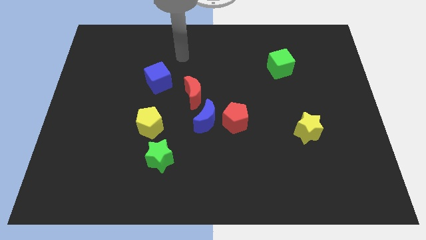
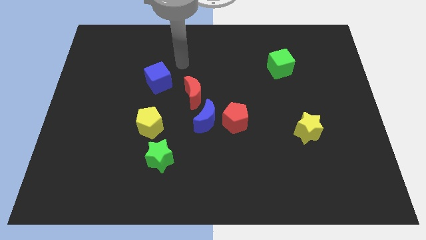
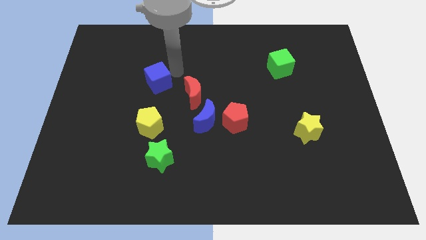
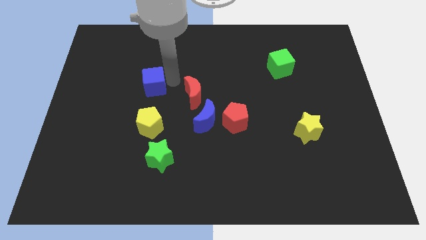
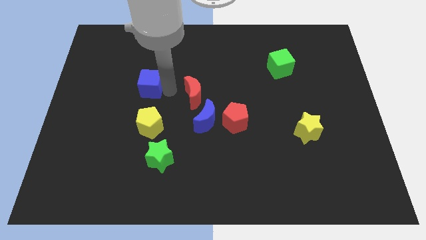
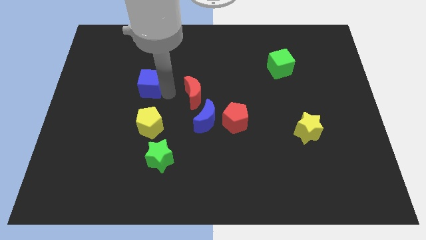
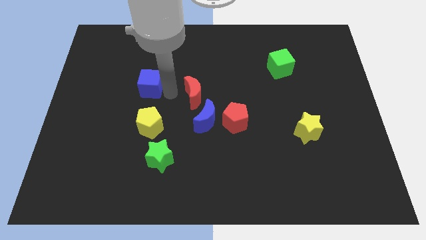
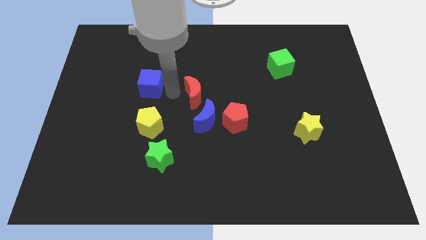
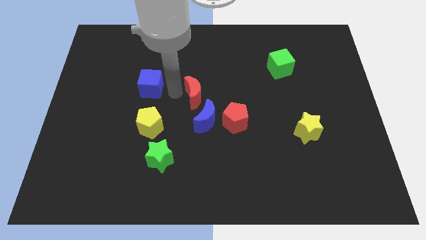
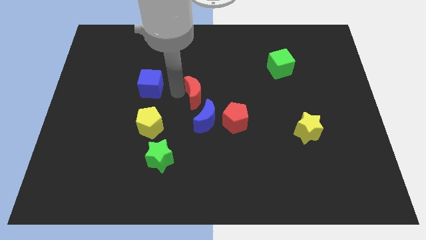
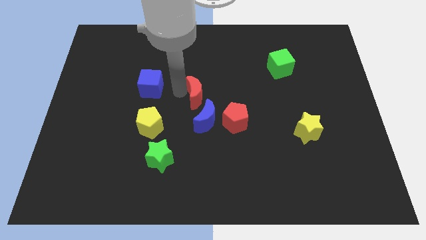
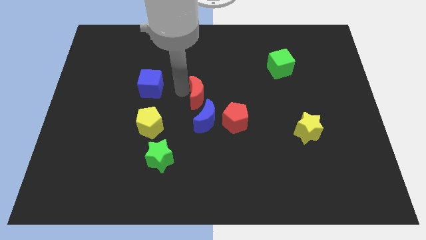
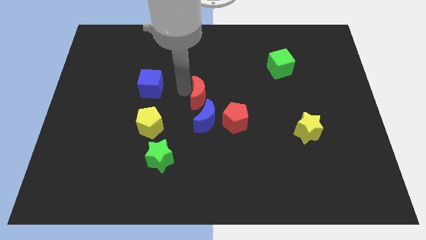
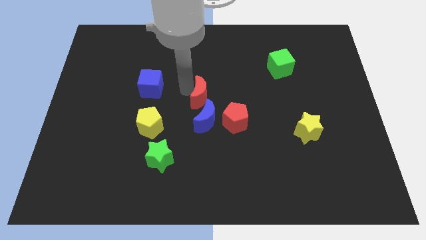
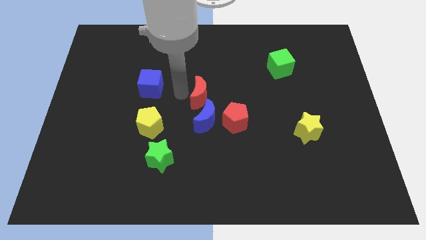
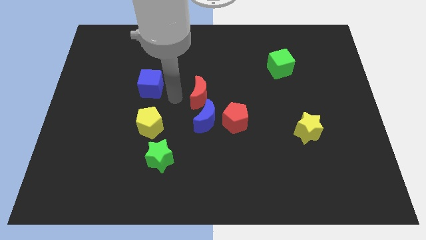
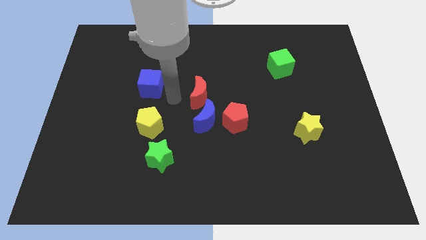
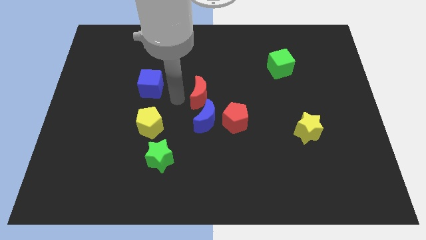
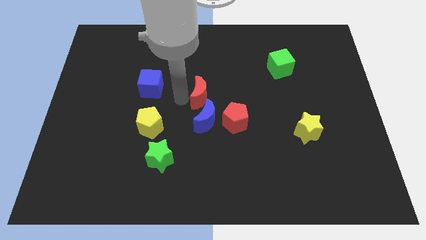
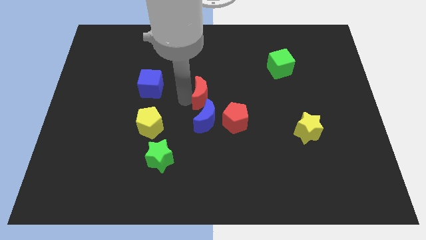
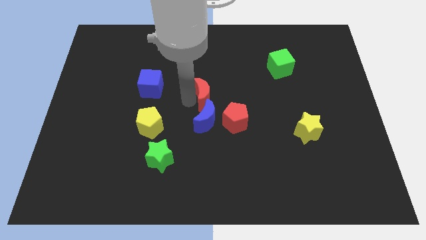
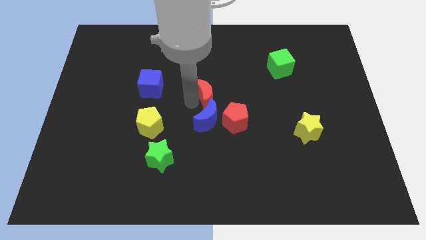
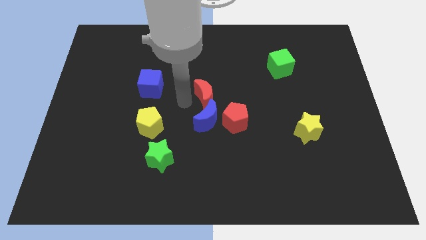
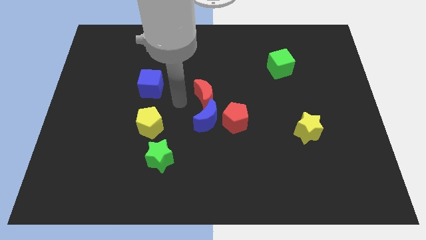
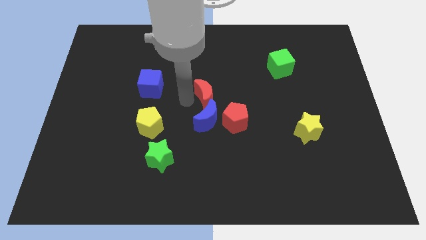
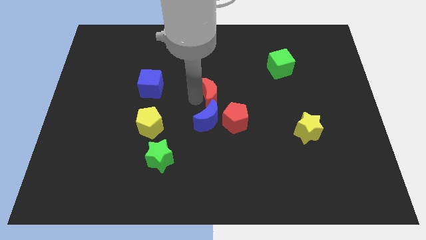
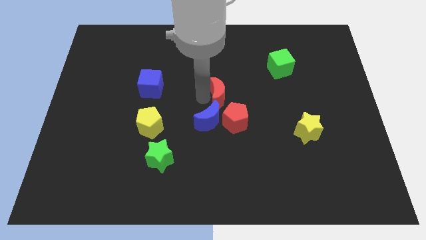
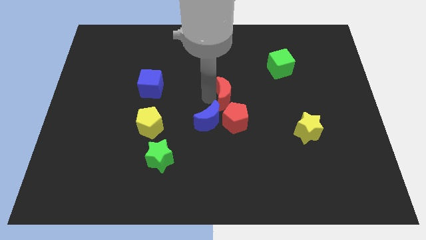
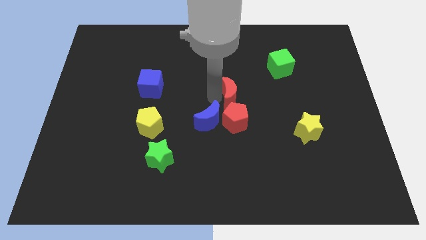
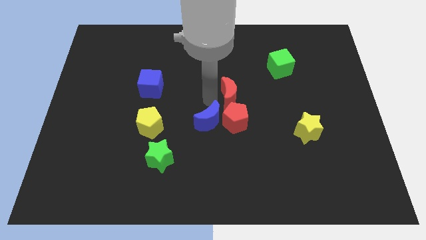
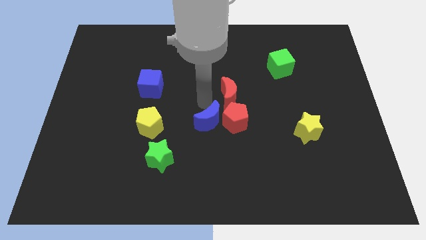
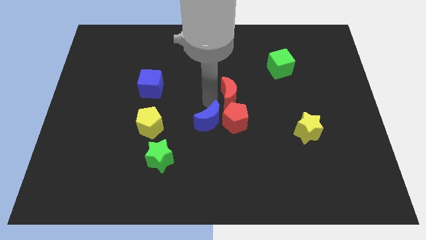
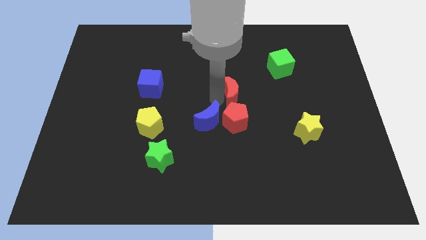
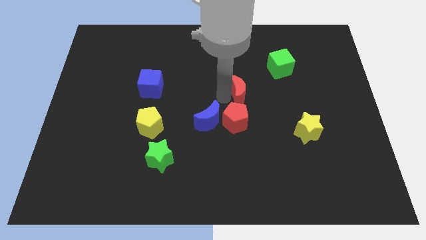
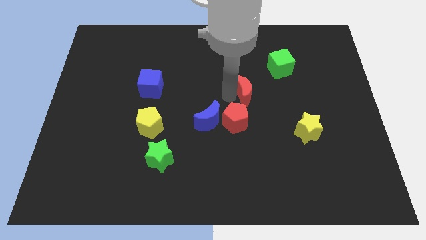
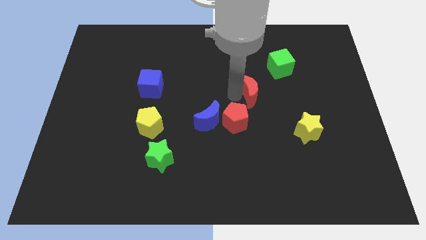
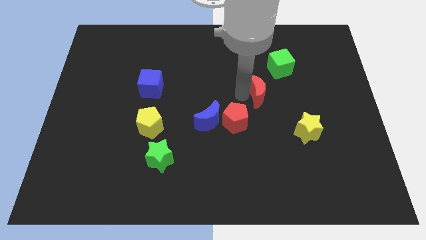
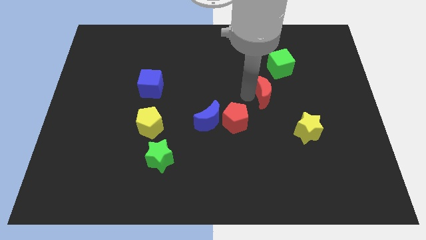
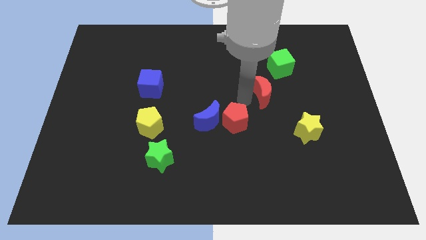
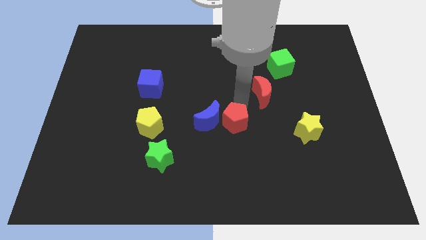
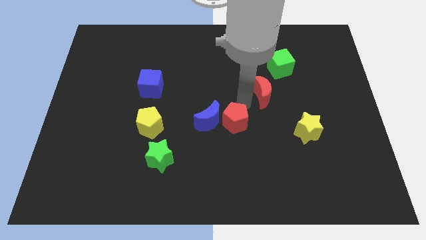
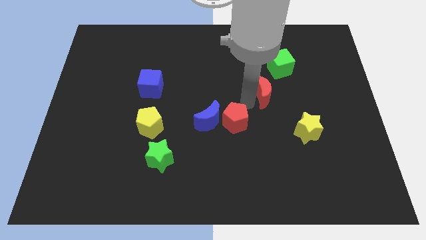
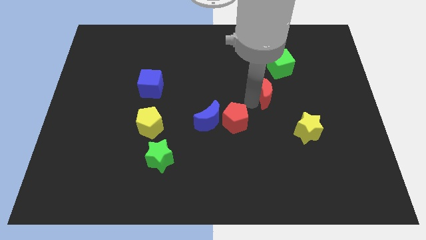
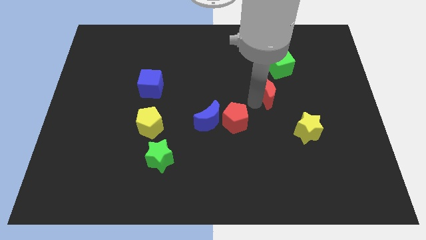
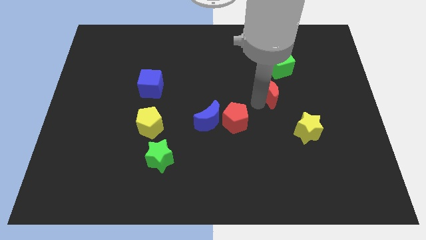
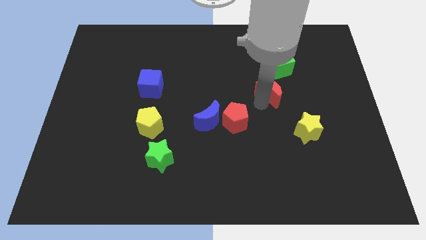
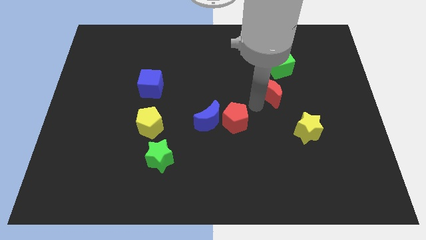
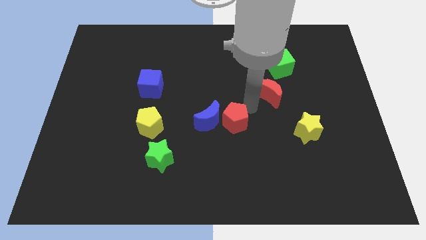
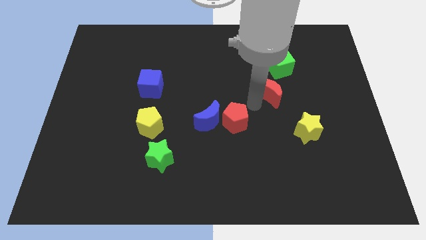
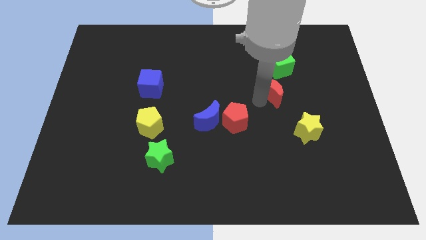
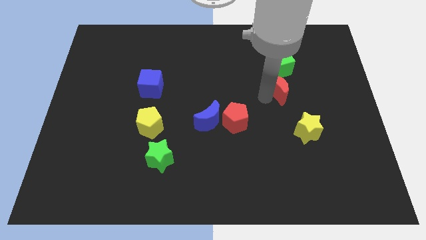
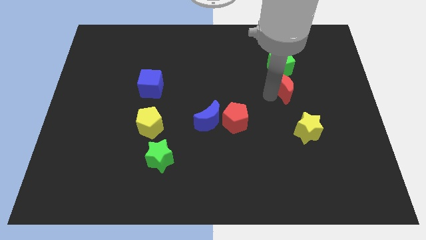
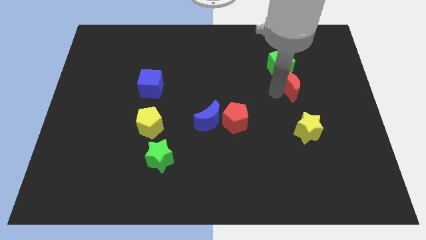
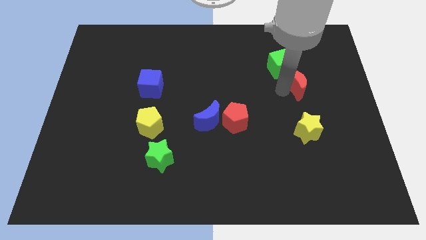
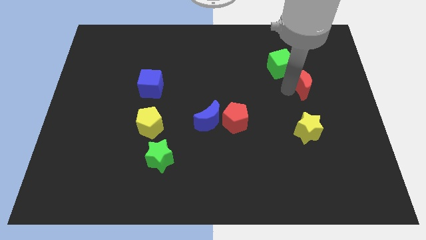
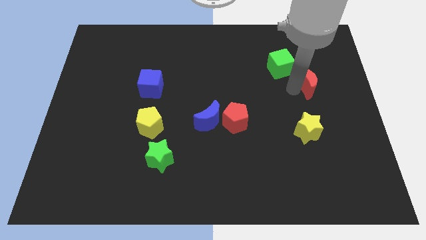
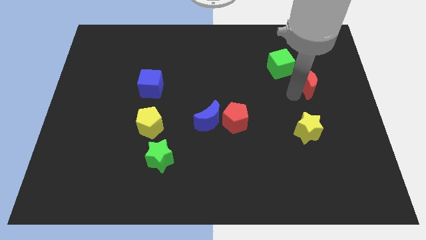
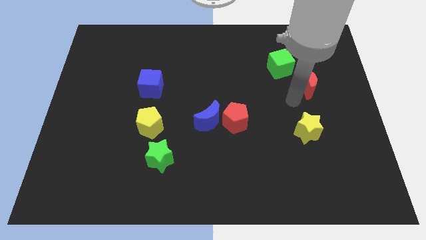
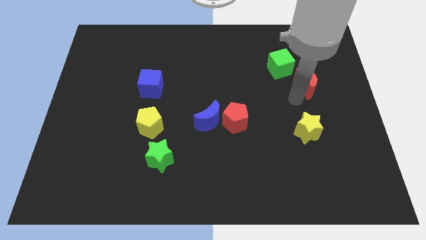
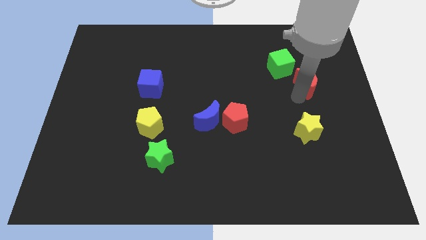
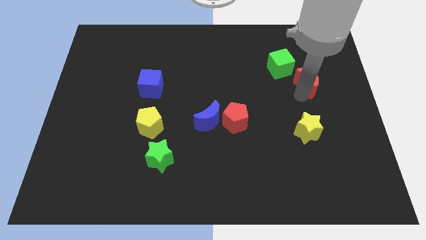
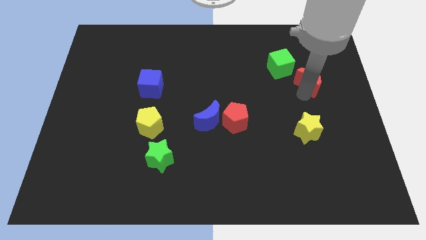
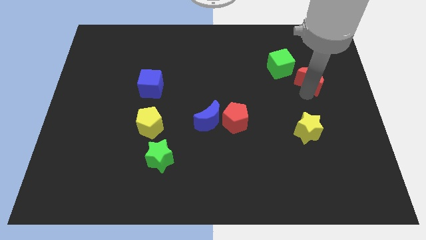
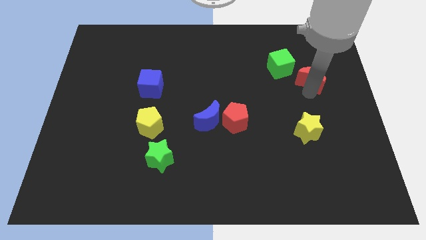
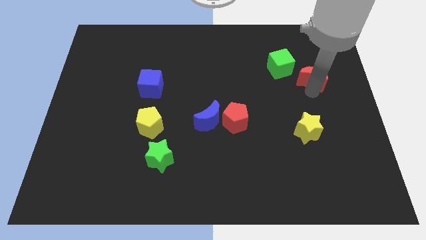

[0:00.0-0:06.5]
push the red moon to the right side of the green cube

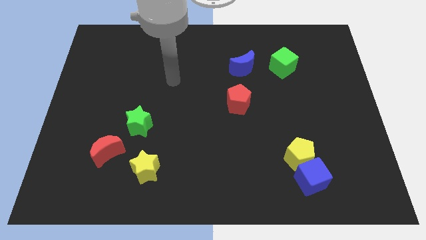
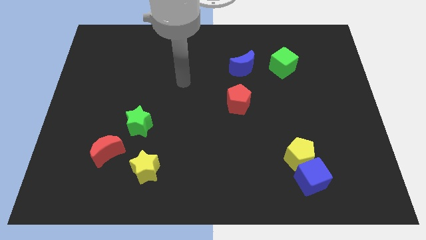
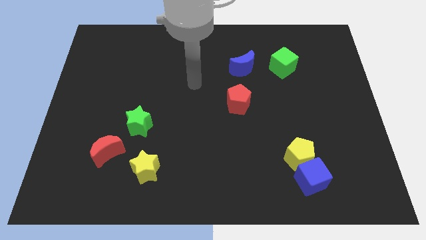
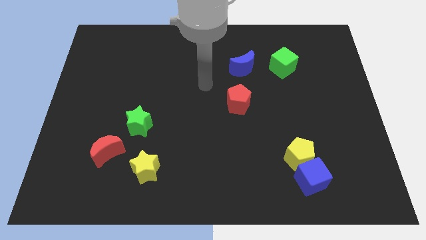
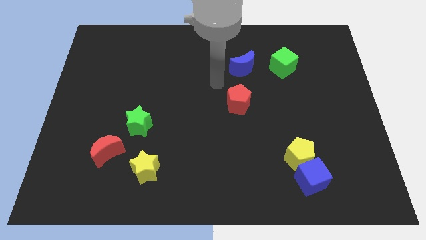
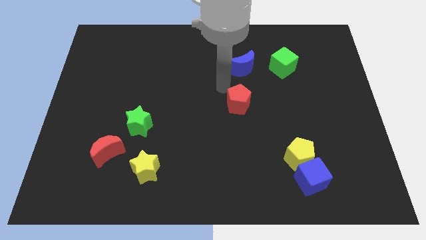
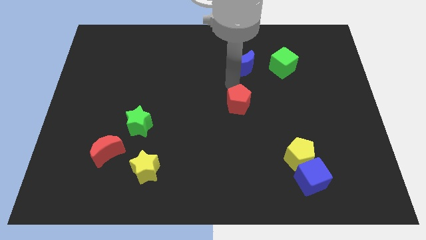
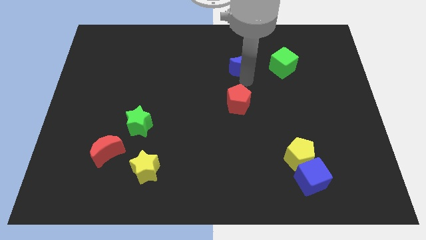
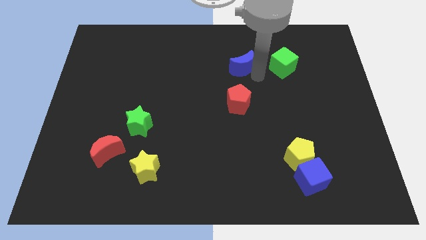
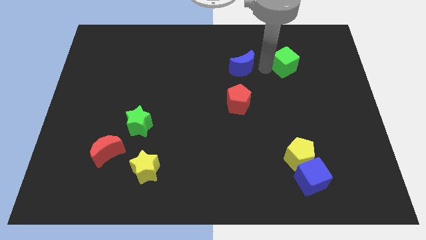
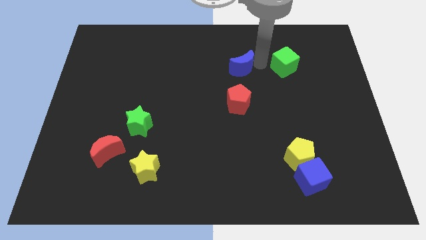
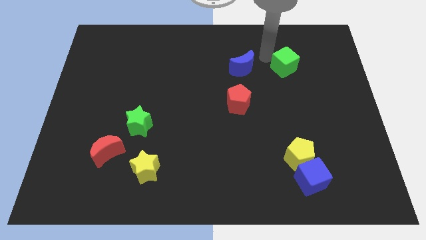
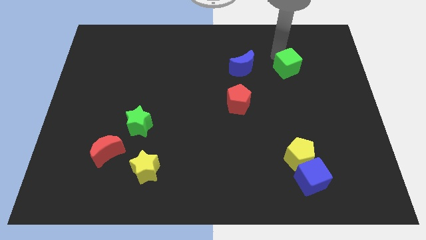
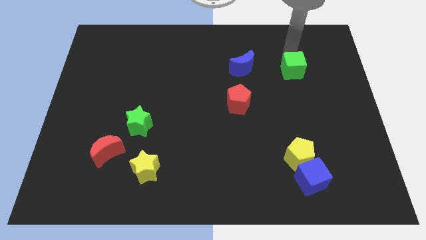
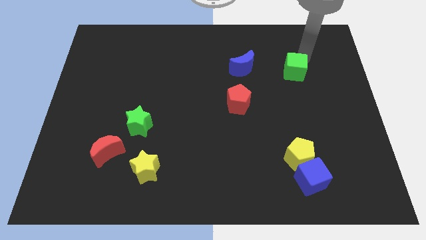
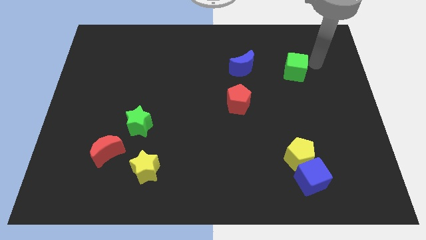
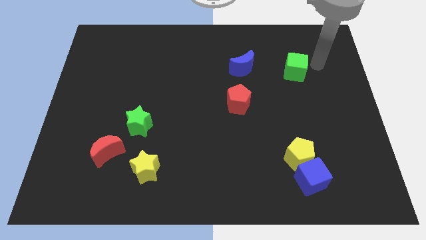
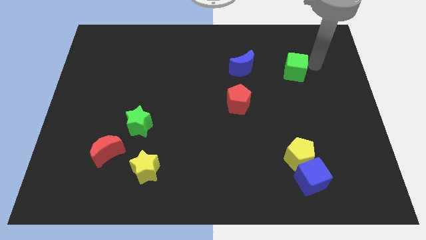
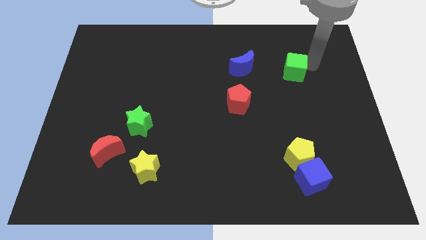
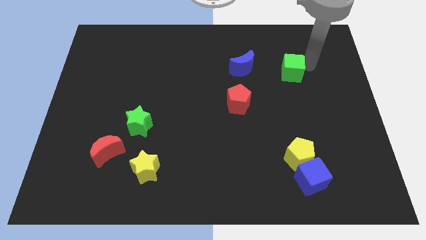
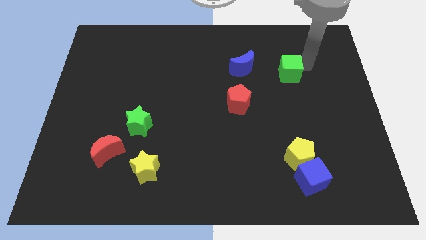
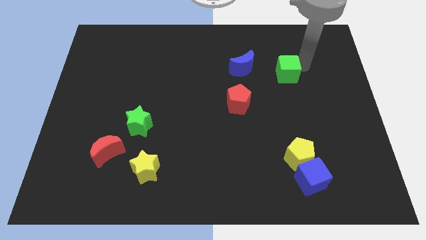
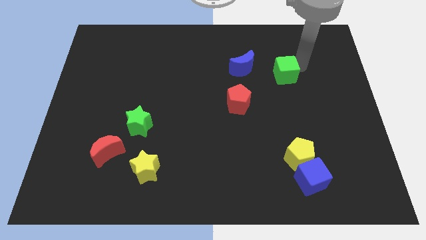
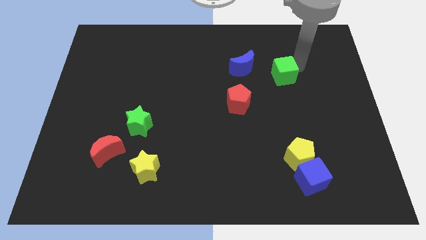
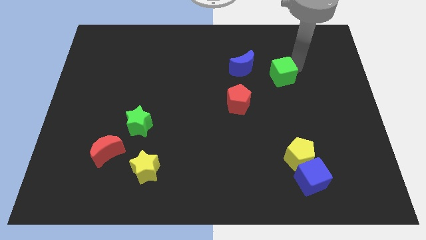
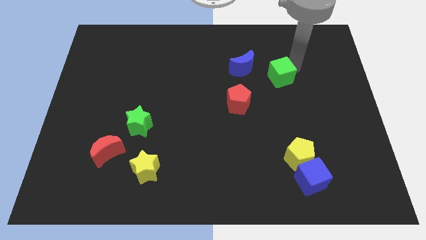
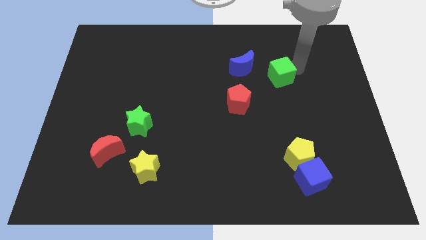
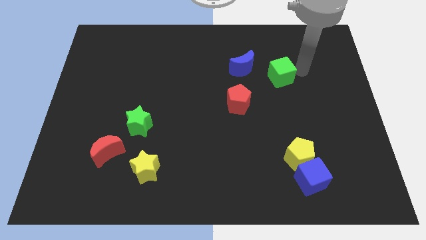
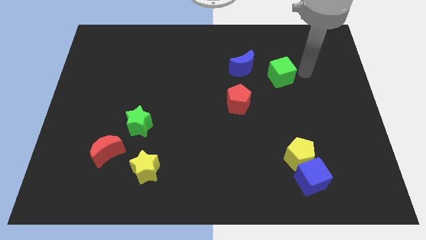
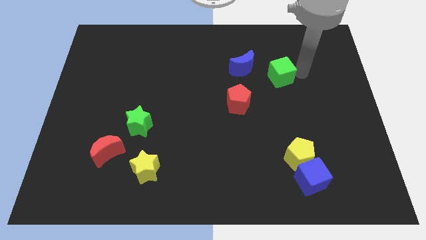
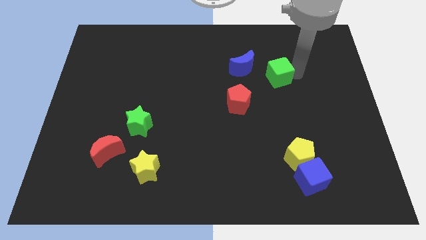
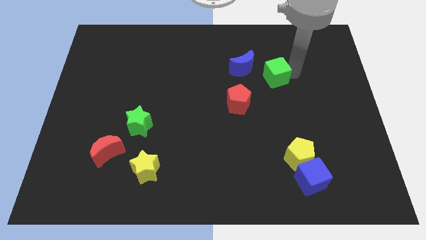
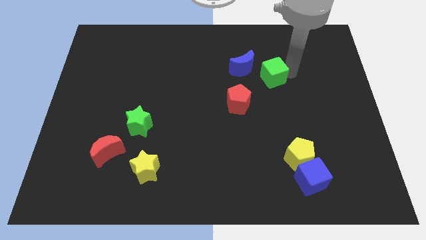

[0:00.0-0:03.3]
slide the green cube diagonally up and to the right of the red pentagon
